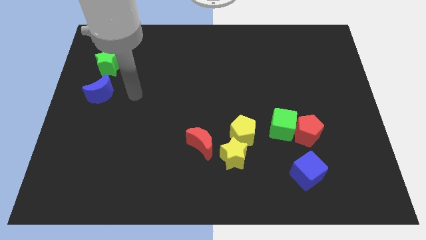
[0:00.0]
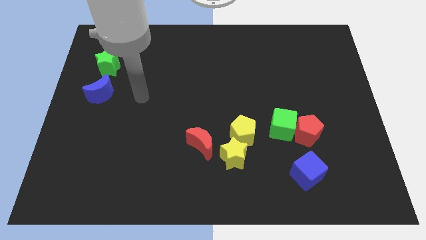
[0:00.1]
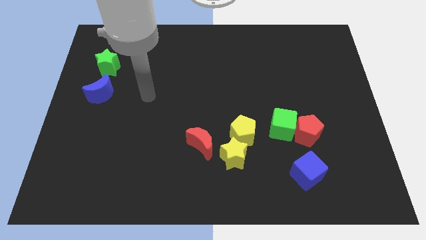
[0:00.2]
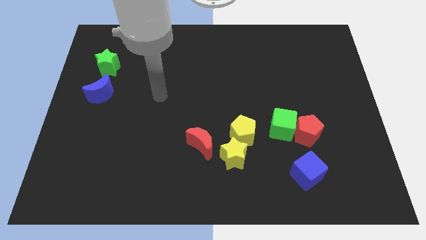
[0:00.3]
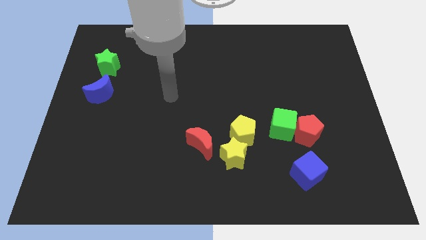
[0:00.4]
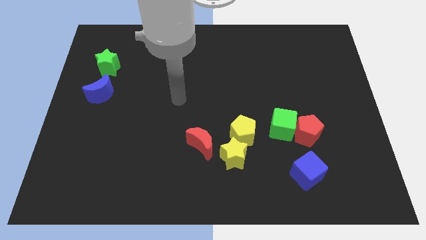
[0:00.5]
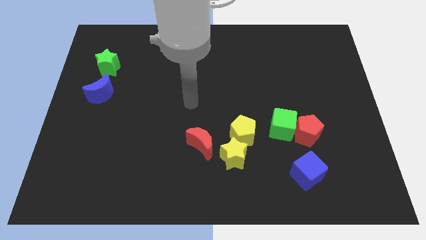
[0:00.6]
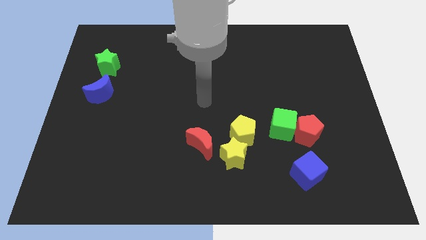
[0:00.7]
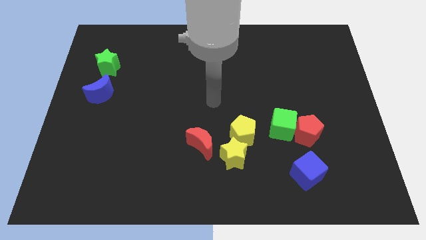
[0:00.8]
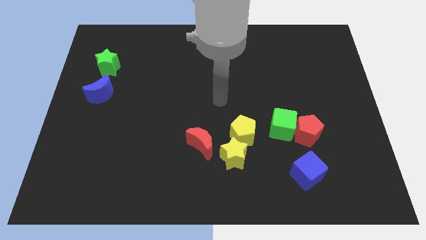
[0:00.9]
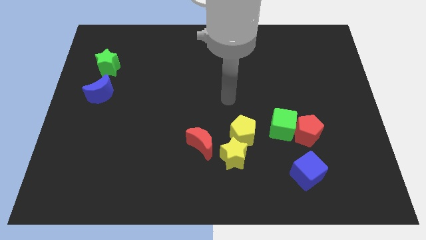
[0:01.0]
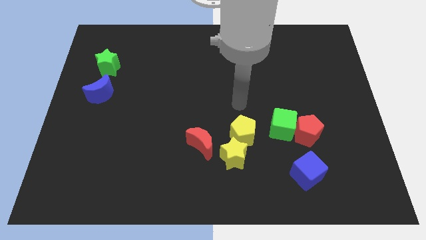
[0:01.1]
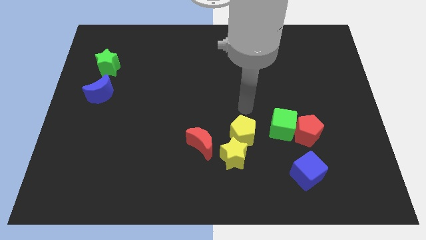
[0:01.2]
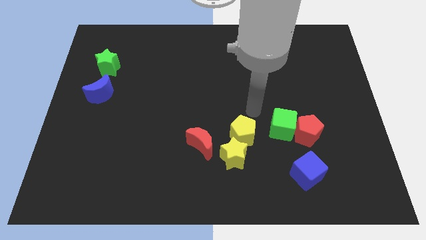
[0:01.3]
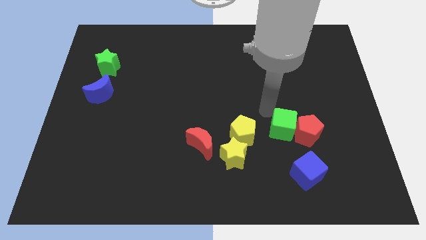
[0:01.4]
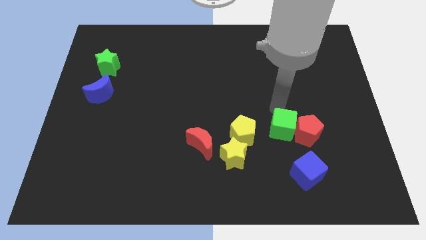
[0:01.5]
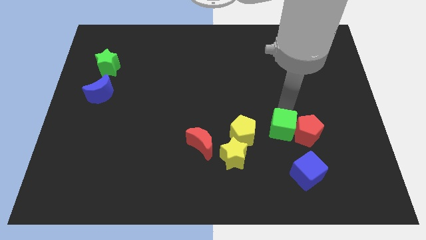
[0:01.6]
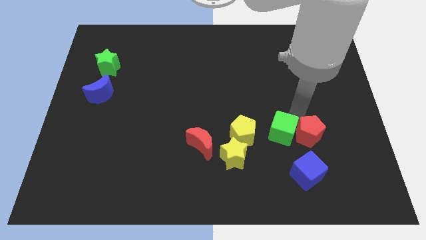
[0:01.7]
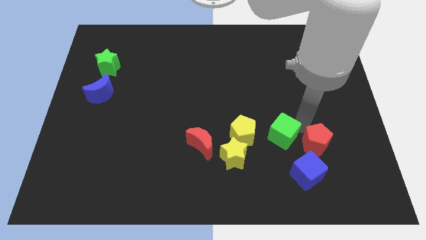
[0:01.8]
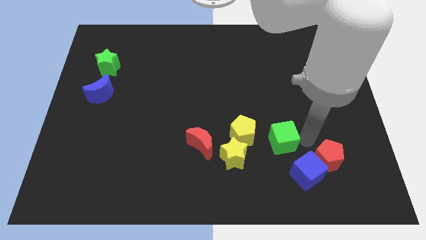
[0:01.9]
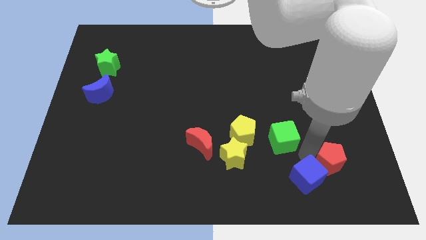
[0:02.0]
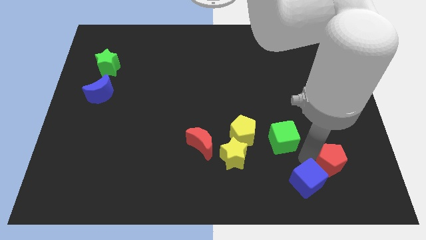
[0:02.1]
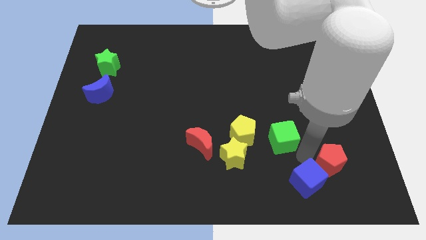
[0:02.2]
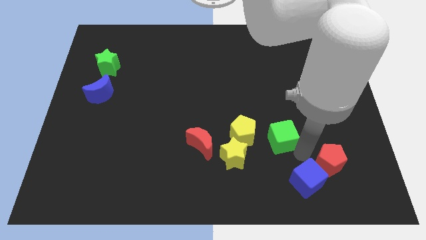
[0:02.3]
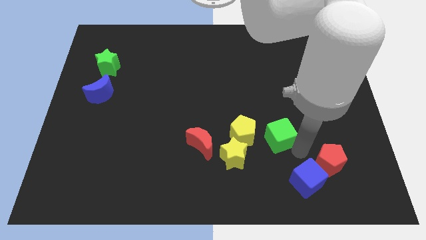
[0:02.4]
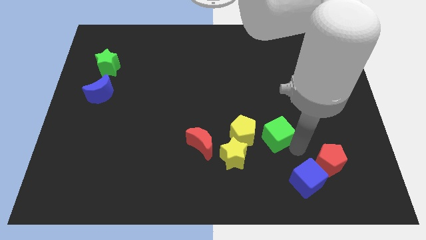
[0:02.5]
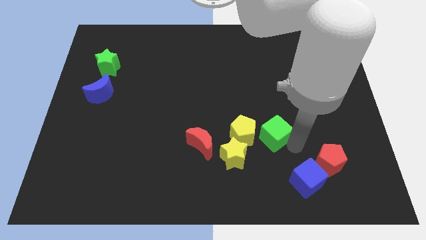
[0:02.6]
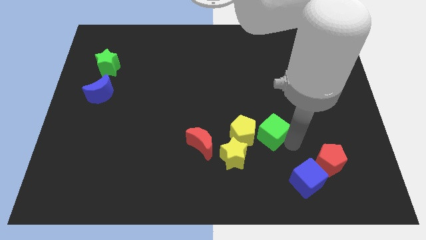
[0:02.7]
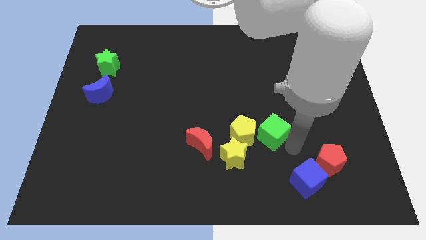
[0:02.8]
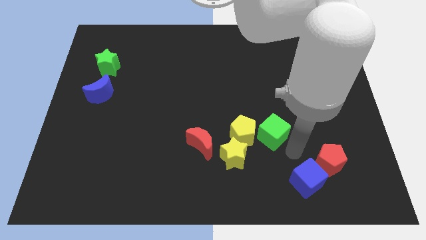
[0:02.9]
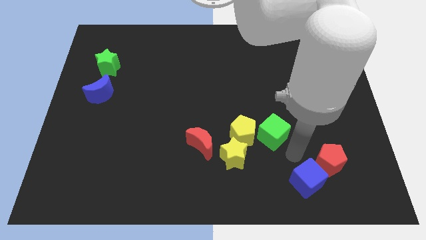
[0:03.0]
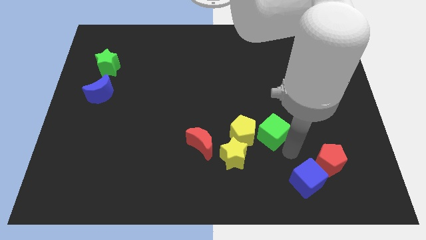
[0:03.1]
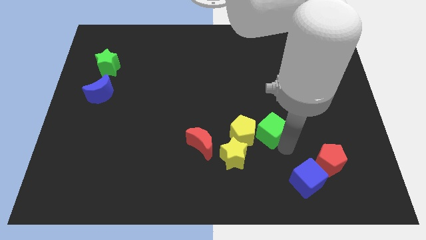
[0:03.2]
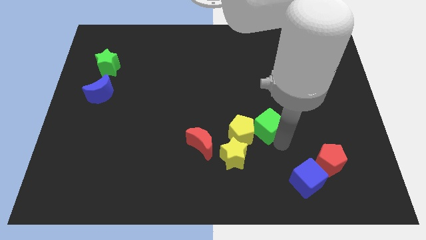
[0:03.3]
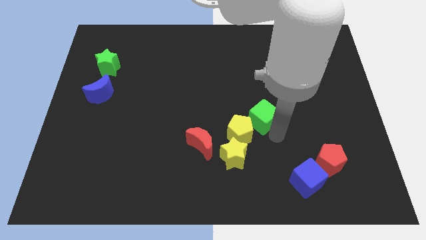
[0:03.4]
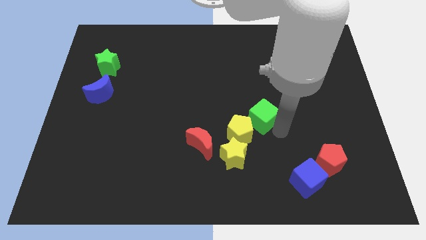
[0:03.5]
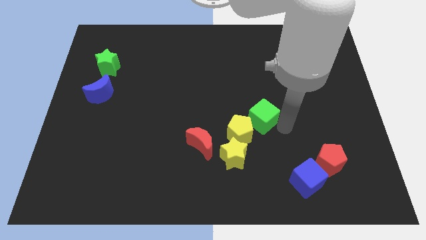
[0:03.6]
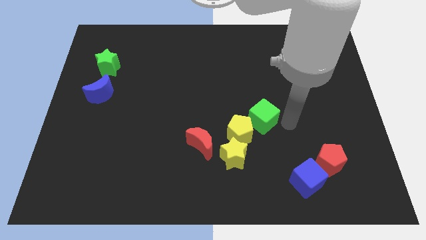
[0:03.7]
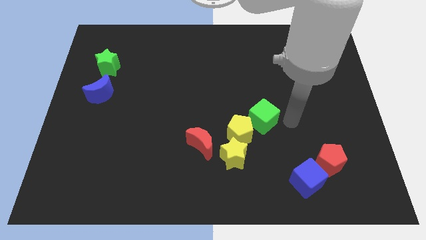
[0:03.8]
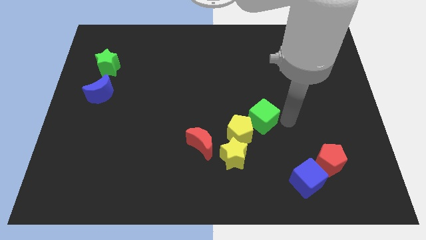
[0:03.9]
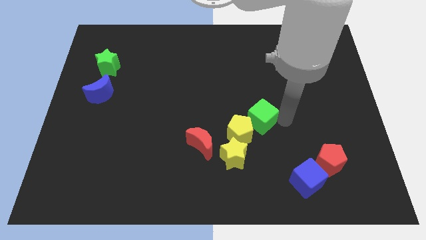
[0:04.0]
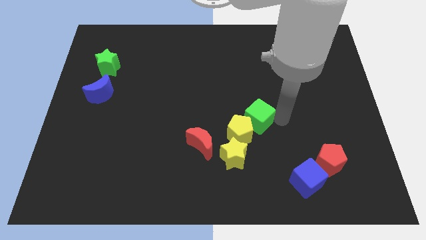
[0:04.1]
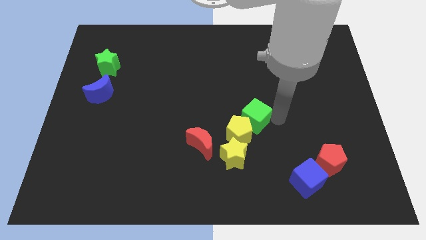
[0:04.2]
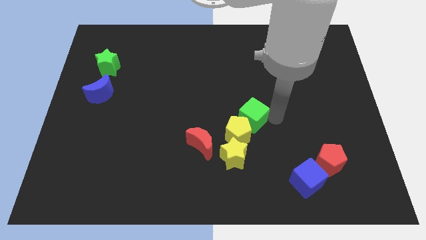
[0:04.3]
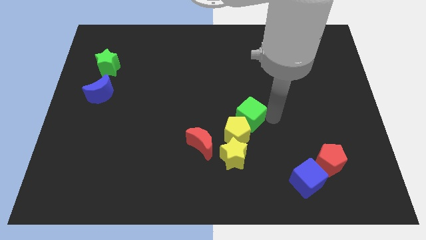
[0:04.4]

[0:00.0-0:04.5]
move the green cube to the left a bit

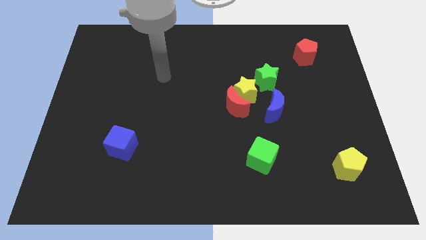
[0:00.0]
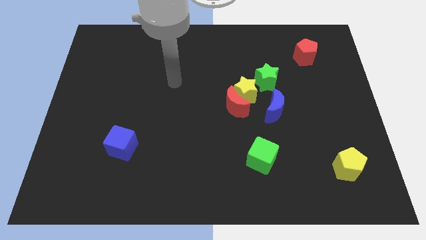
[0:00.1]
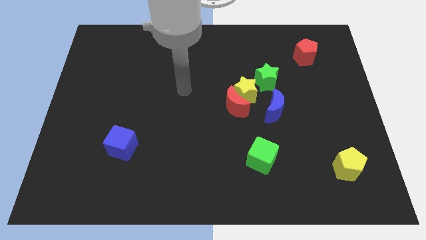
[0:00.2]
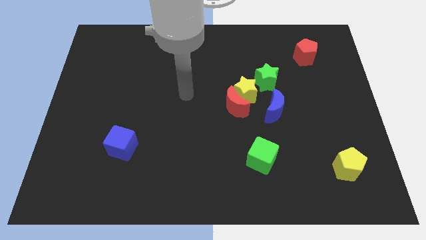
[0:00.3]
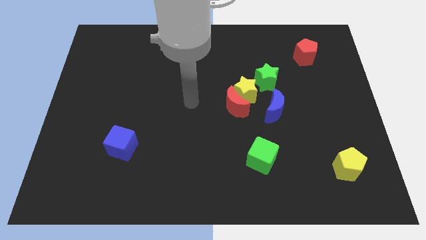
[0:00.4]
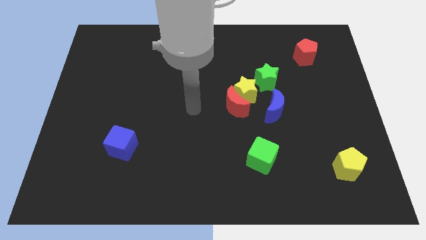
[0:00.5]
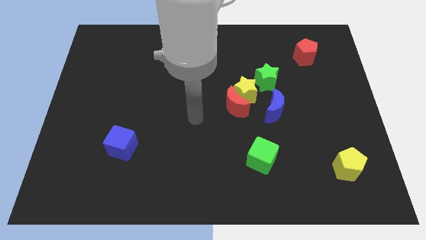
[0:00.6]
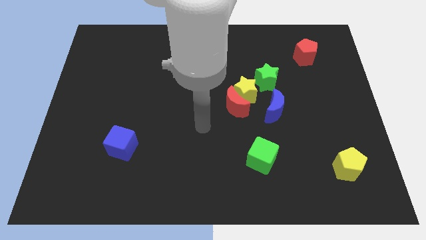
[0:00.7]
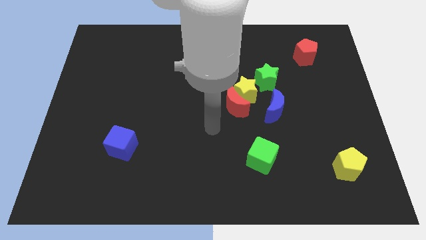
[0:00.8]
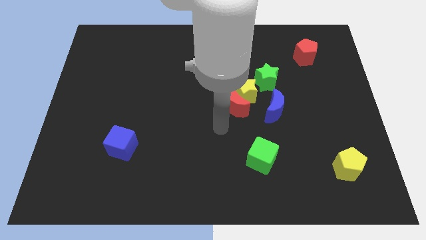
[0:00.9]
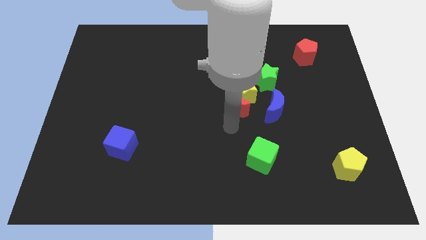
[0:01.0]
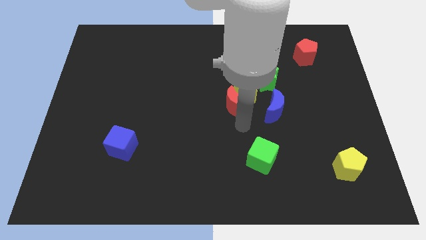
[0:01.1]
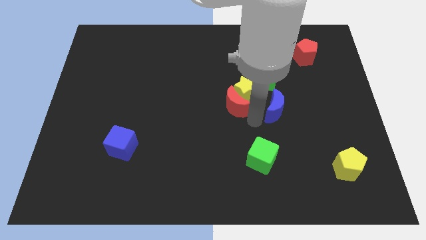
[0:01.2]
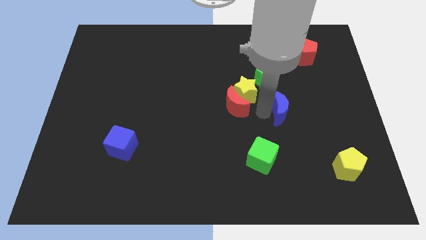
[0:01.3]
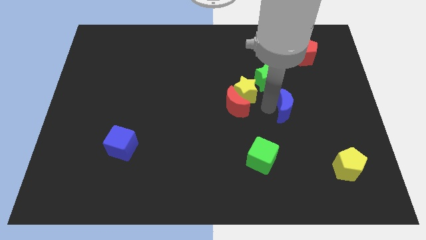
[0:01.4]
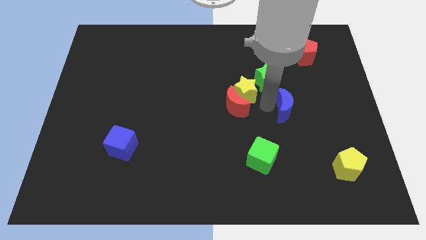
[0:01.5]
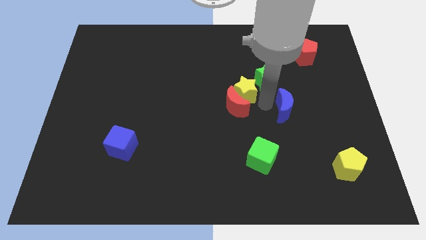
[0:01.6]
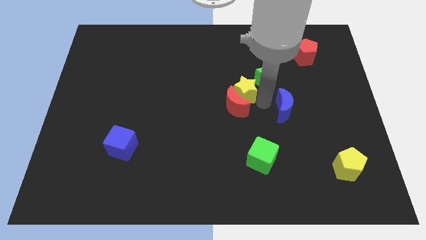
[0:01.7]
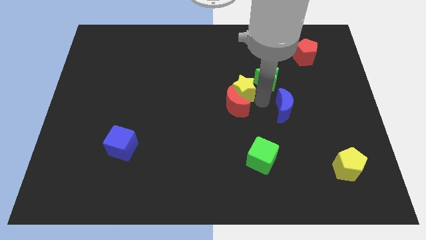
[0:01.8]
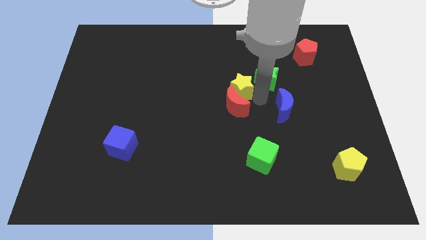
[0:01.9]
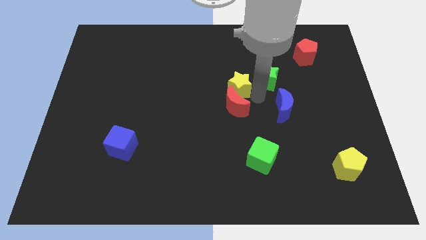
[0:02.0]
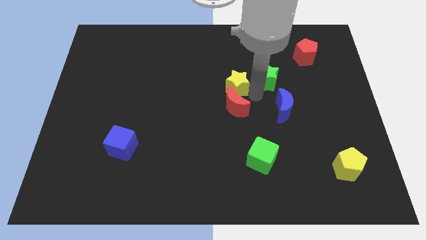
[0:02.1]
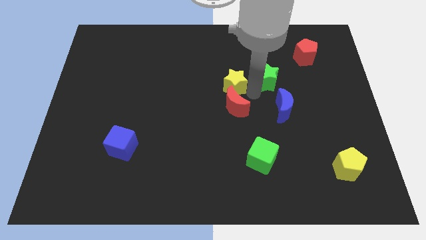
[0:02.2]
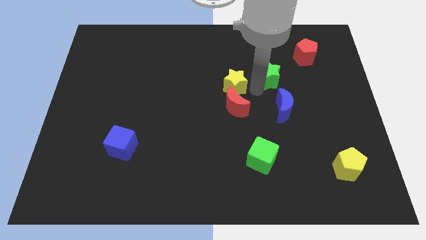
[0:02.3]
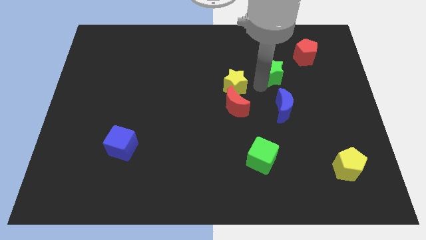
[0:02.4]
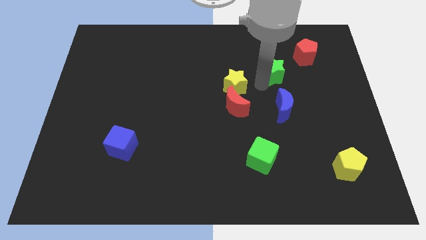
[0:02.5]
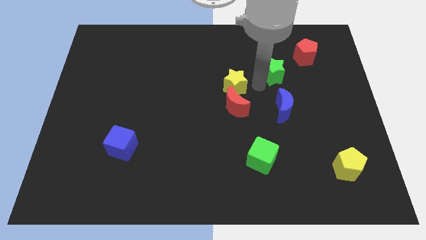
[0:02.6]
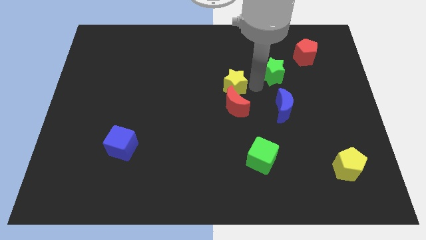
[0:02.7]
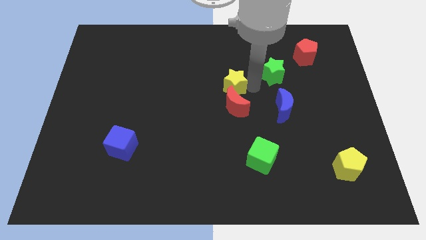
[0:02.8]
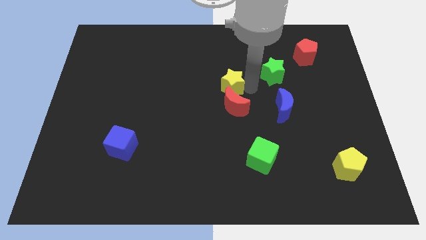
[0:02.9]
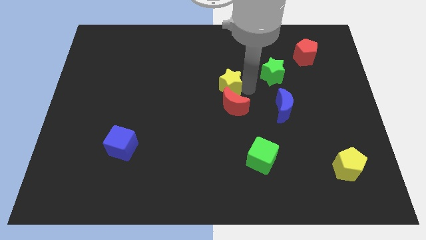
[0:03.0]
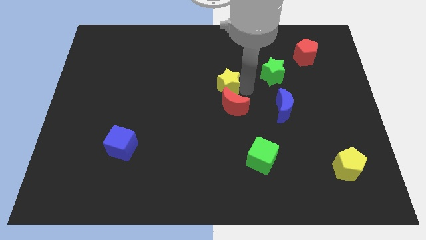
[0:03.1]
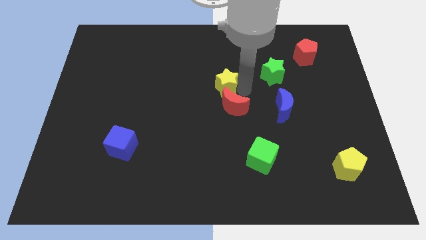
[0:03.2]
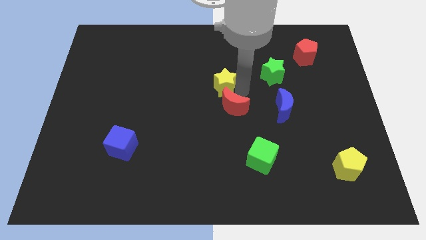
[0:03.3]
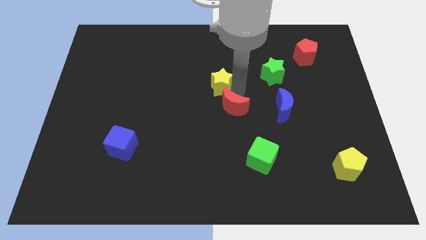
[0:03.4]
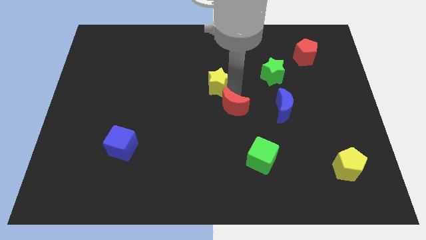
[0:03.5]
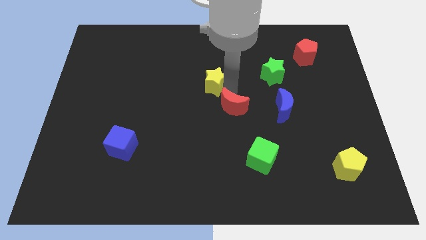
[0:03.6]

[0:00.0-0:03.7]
slightly move the yellow star to the left
